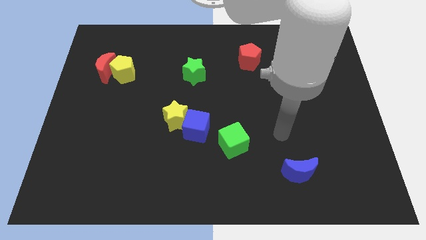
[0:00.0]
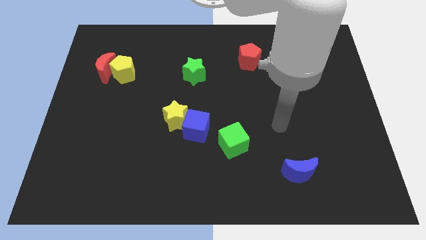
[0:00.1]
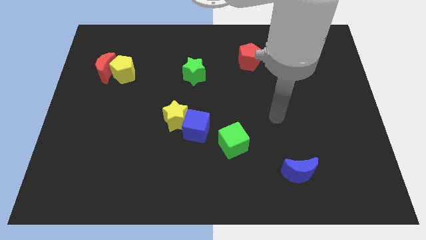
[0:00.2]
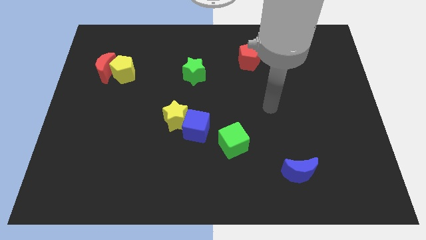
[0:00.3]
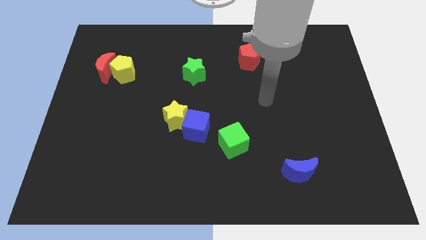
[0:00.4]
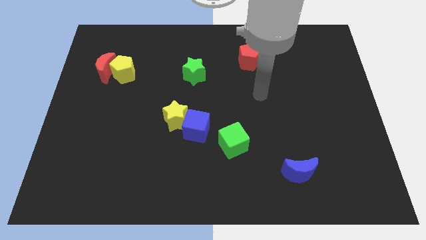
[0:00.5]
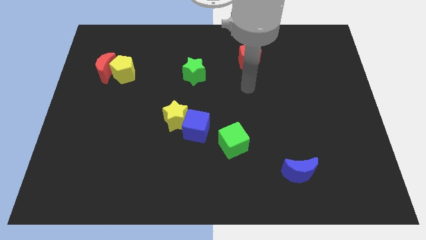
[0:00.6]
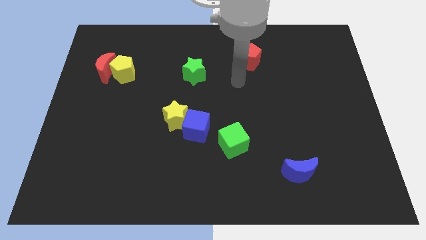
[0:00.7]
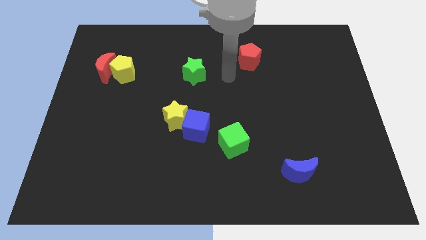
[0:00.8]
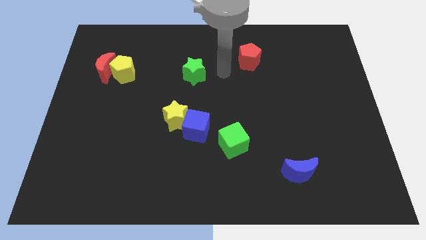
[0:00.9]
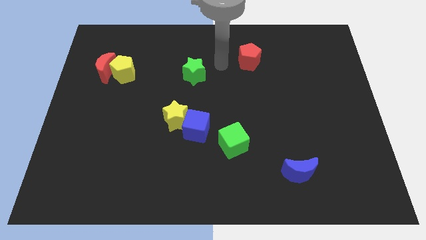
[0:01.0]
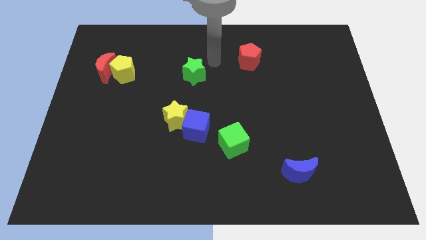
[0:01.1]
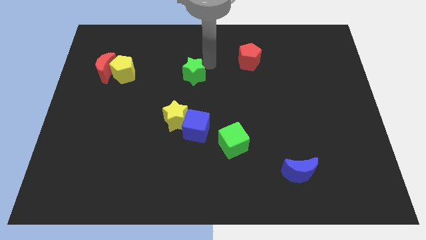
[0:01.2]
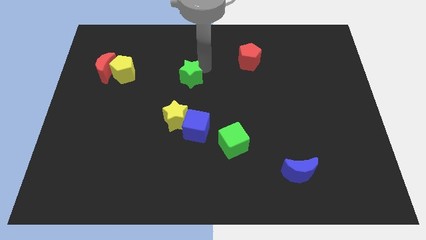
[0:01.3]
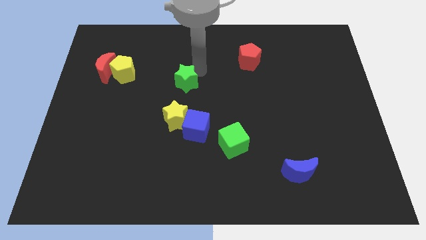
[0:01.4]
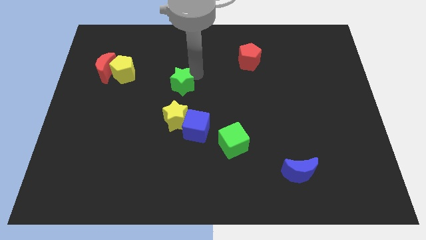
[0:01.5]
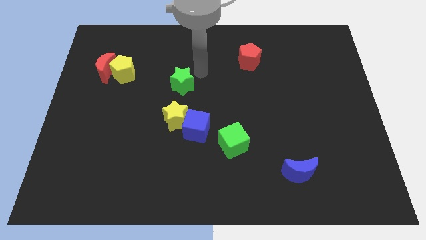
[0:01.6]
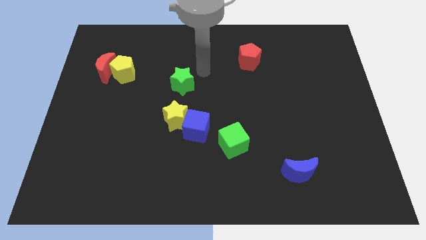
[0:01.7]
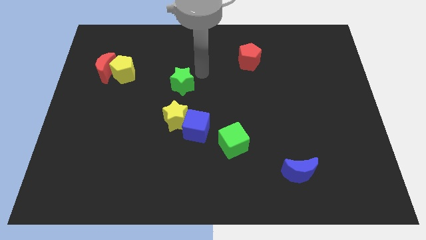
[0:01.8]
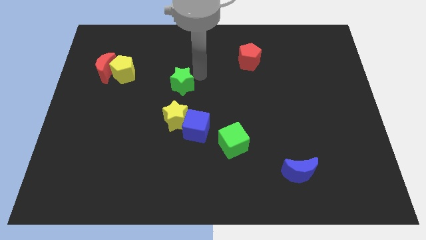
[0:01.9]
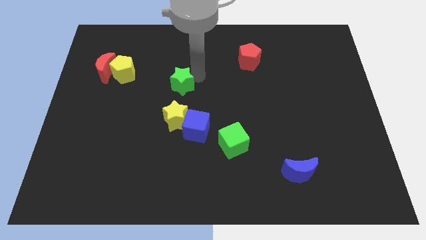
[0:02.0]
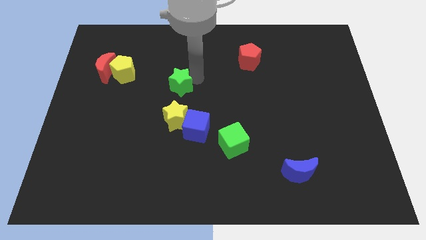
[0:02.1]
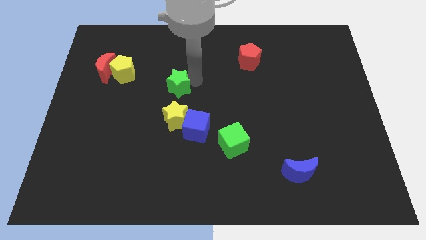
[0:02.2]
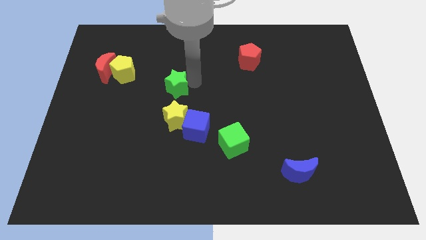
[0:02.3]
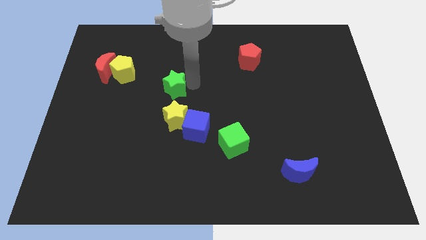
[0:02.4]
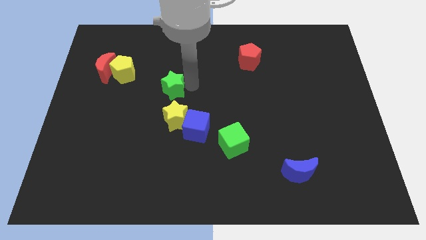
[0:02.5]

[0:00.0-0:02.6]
push the green star diagonally downwards and left a bit

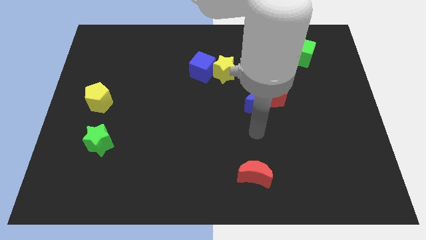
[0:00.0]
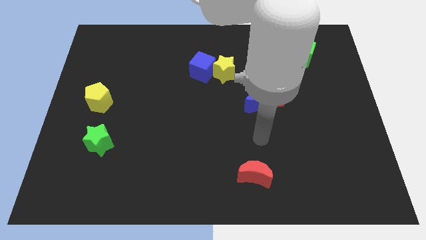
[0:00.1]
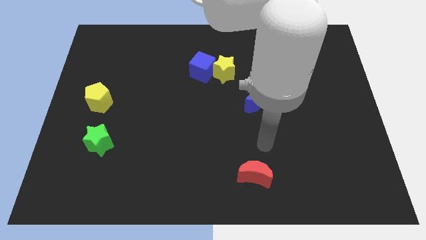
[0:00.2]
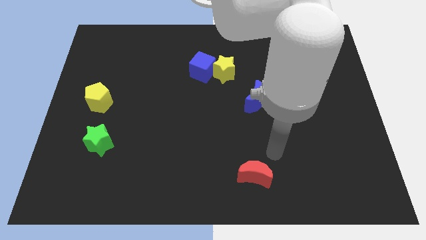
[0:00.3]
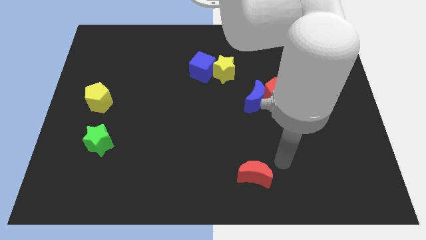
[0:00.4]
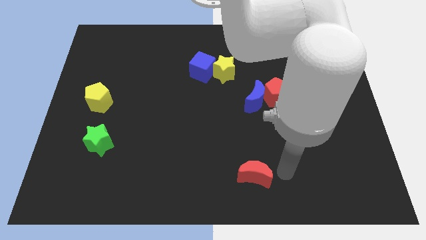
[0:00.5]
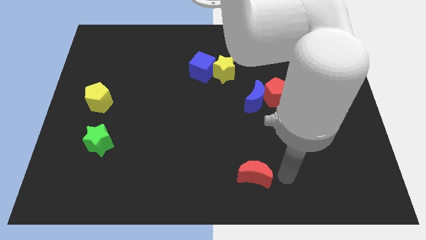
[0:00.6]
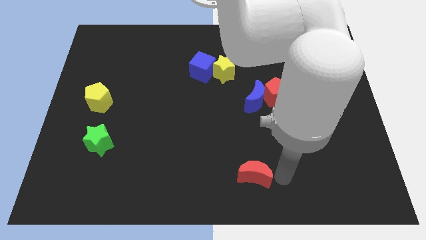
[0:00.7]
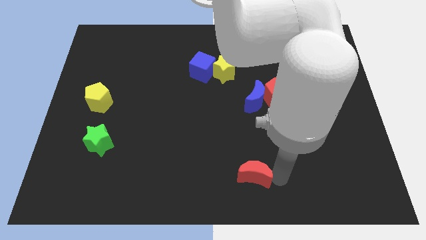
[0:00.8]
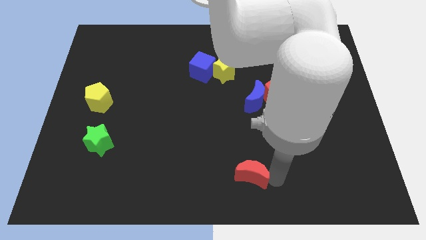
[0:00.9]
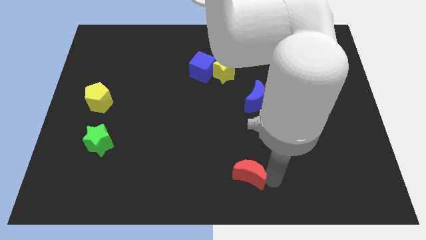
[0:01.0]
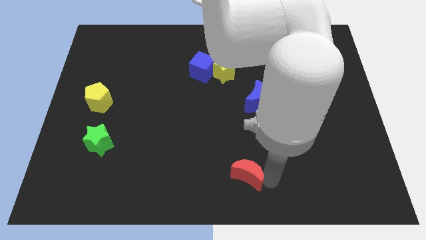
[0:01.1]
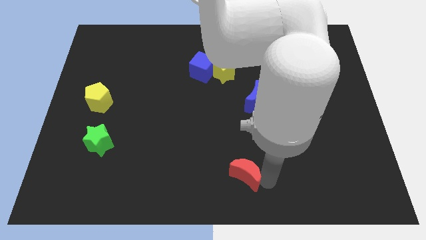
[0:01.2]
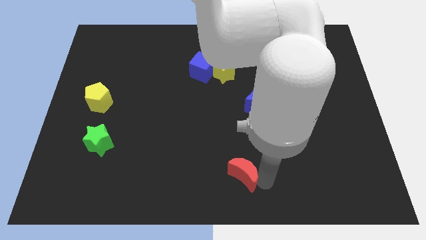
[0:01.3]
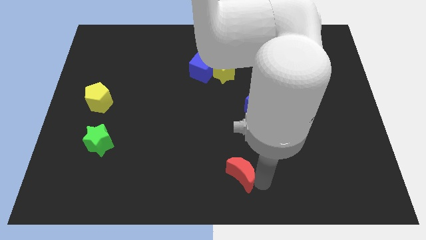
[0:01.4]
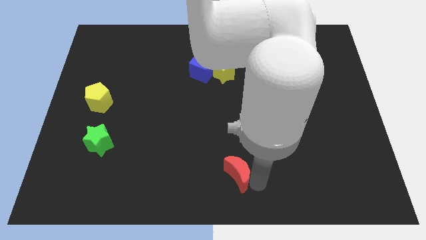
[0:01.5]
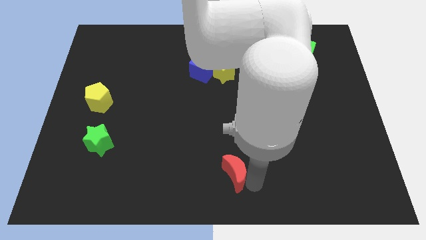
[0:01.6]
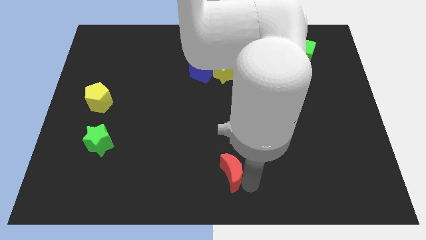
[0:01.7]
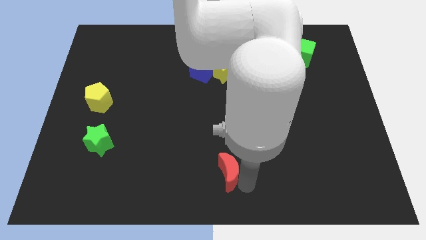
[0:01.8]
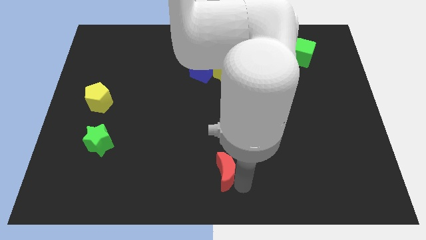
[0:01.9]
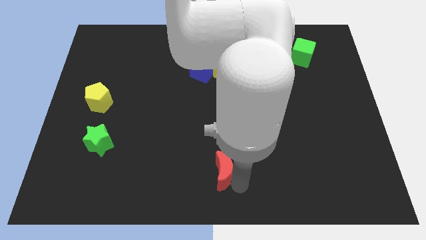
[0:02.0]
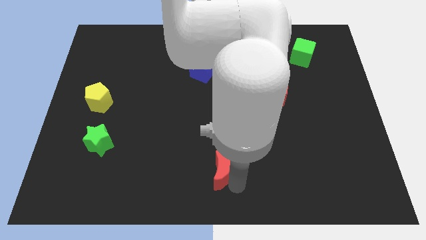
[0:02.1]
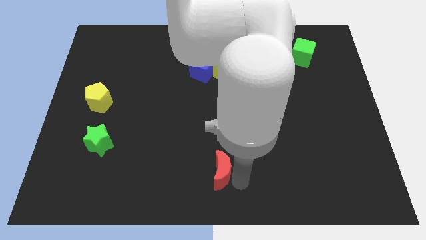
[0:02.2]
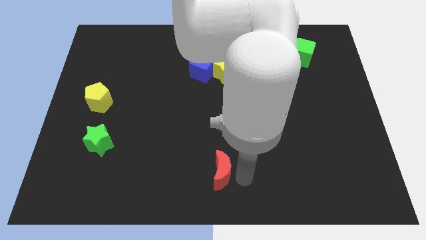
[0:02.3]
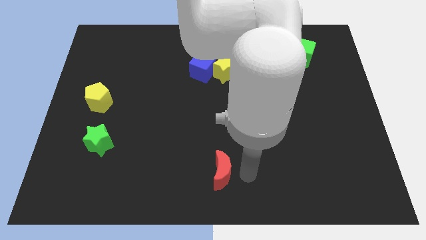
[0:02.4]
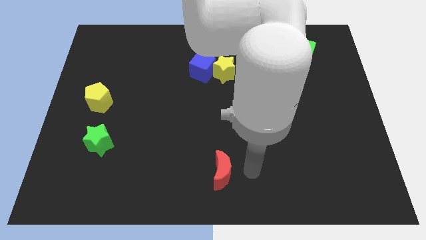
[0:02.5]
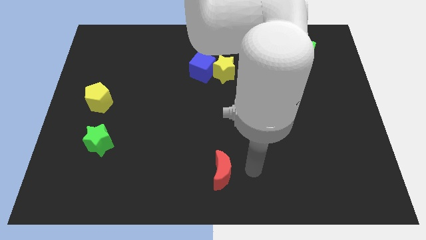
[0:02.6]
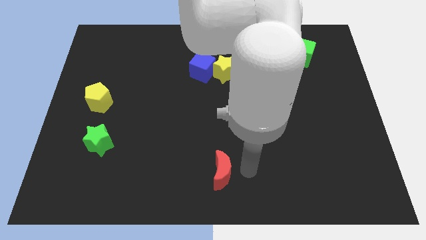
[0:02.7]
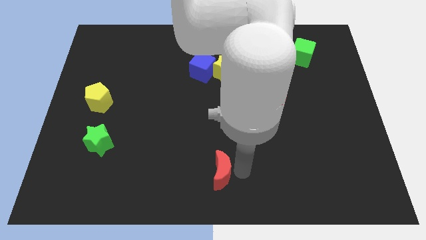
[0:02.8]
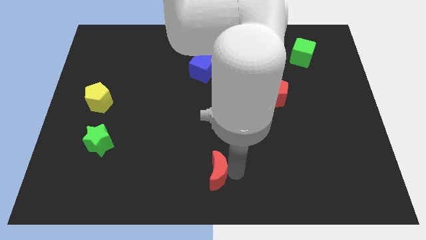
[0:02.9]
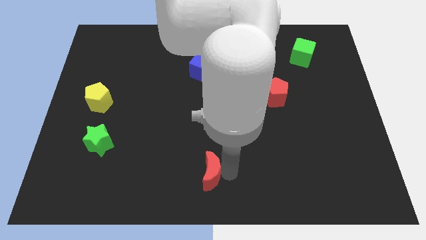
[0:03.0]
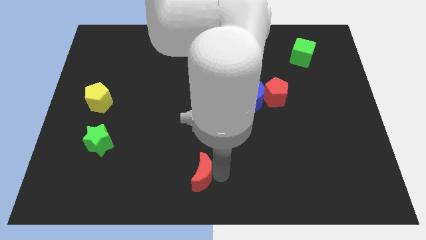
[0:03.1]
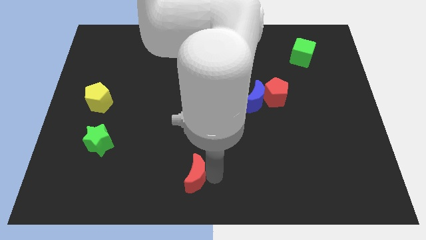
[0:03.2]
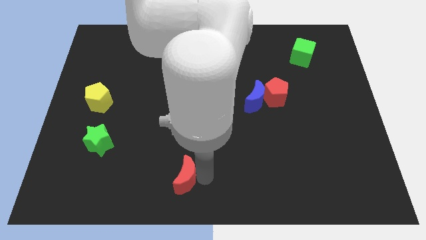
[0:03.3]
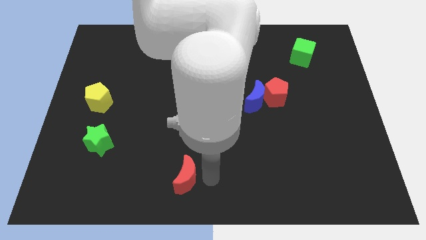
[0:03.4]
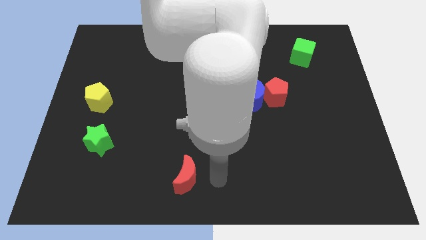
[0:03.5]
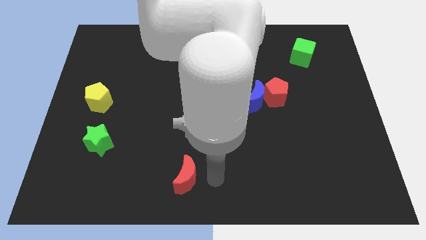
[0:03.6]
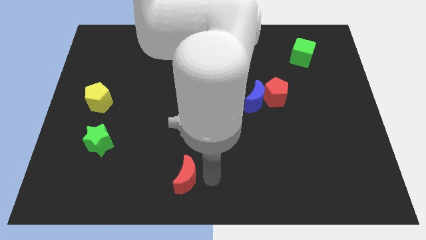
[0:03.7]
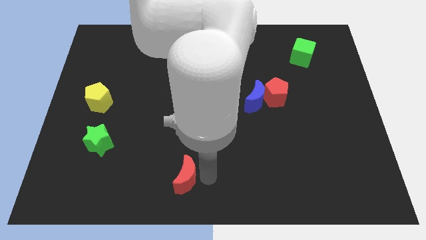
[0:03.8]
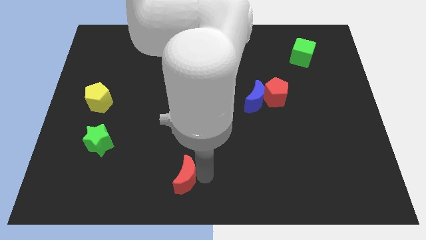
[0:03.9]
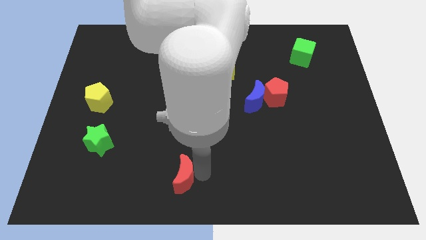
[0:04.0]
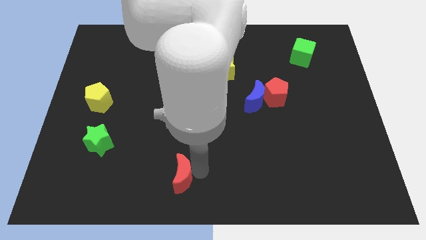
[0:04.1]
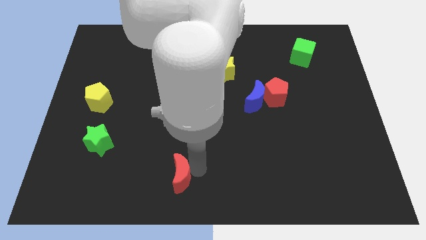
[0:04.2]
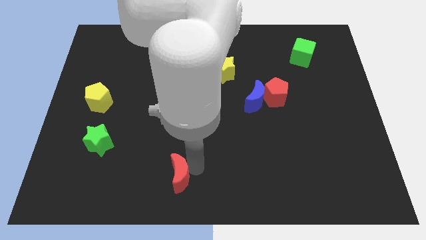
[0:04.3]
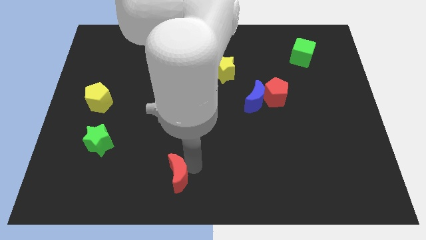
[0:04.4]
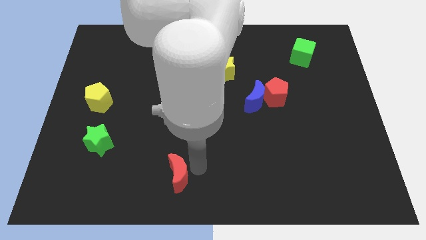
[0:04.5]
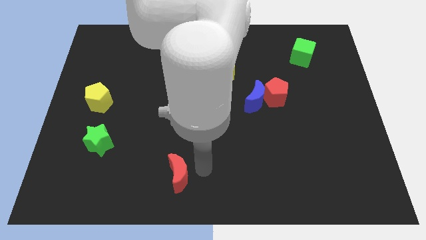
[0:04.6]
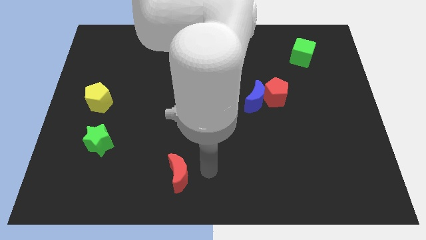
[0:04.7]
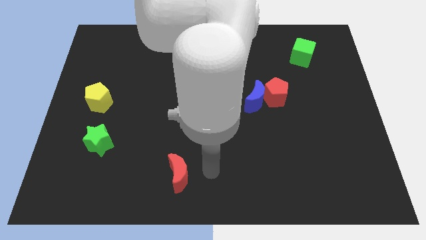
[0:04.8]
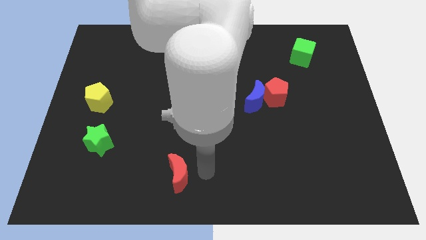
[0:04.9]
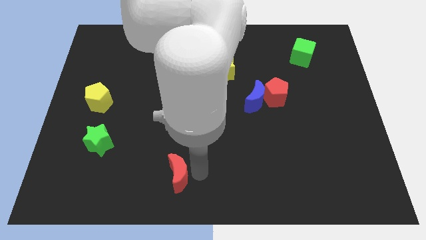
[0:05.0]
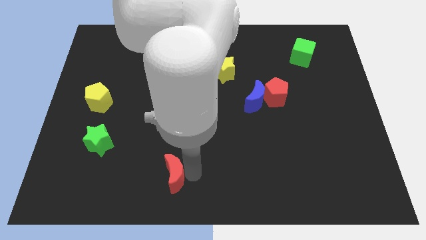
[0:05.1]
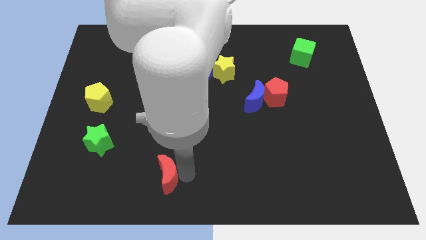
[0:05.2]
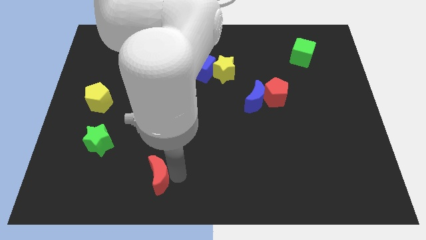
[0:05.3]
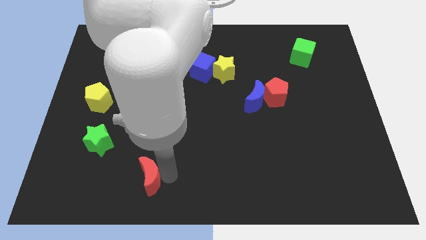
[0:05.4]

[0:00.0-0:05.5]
slide the red moon left

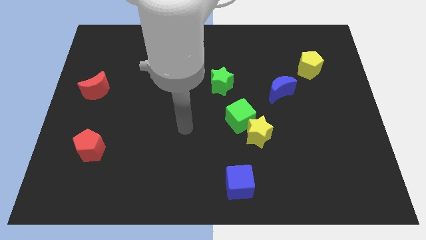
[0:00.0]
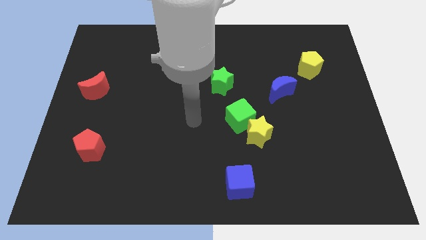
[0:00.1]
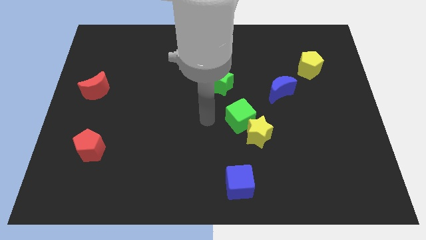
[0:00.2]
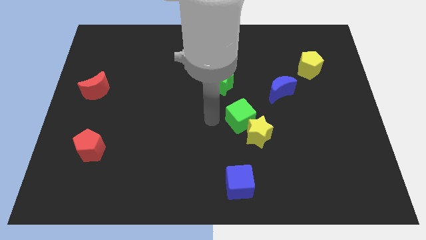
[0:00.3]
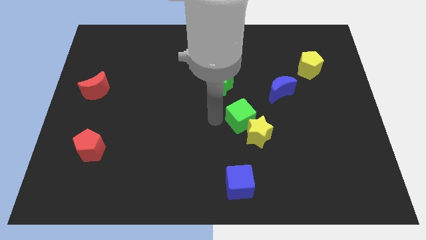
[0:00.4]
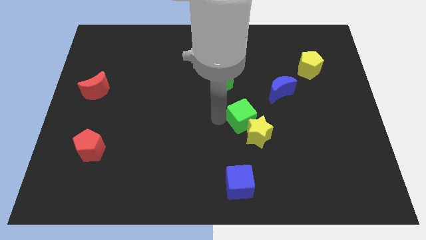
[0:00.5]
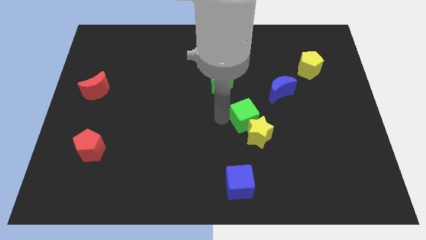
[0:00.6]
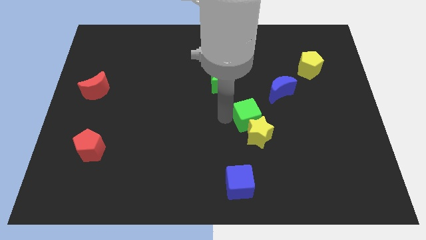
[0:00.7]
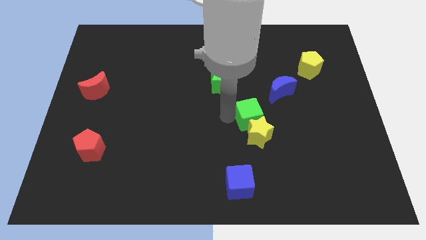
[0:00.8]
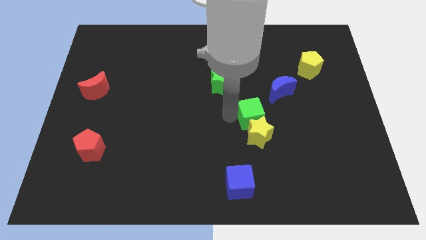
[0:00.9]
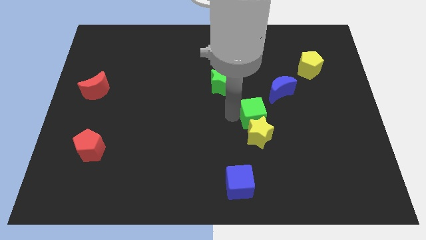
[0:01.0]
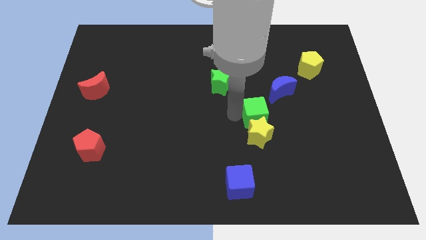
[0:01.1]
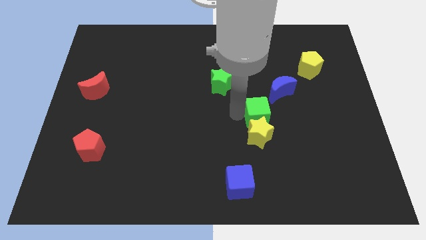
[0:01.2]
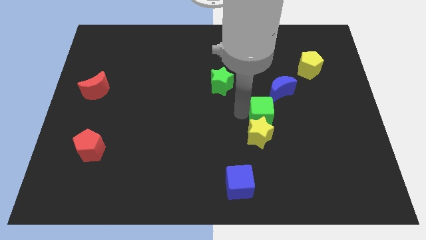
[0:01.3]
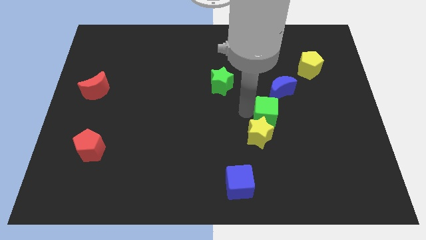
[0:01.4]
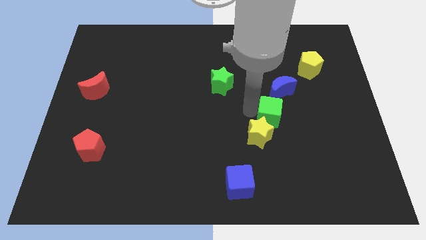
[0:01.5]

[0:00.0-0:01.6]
move the green cube right slightly
